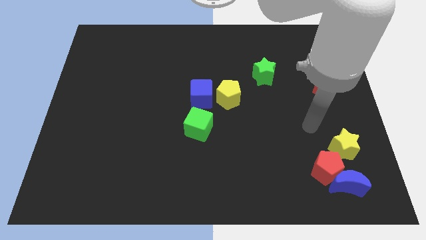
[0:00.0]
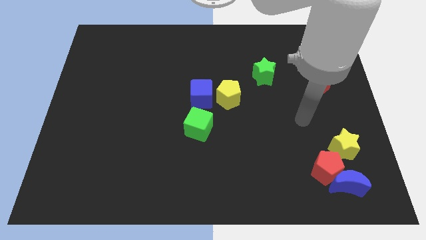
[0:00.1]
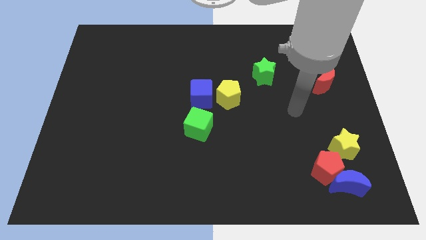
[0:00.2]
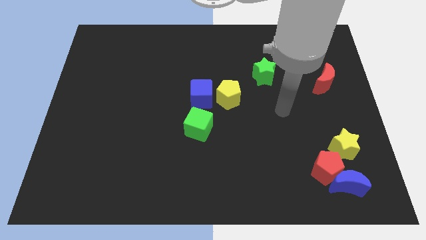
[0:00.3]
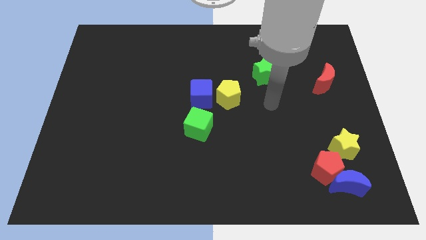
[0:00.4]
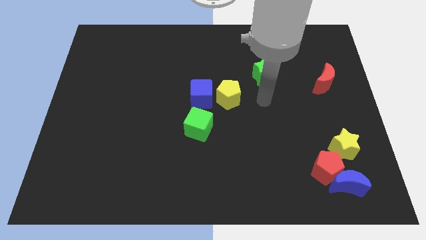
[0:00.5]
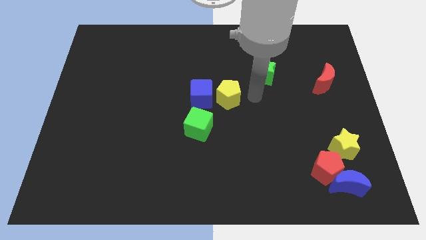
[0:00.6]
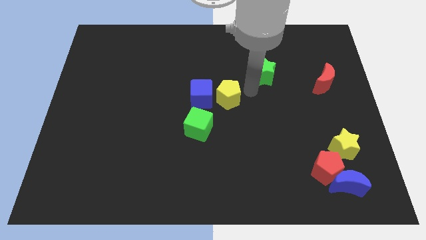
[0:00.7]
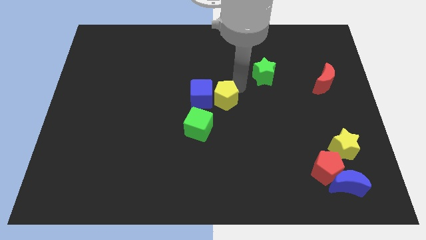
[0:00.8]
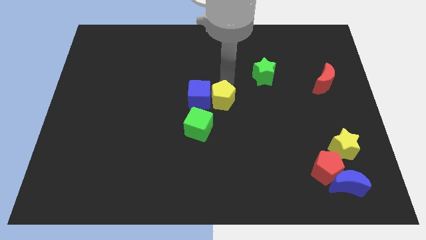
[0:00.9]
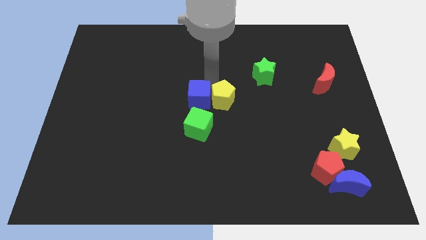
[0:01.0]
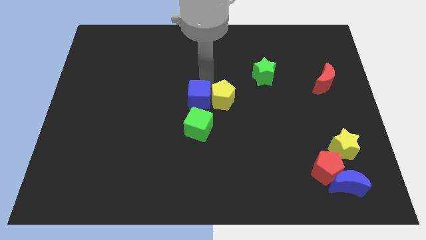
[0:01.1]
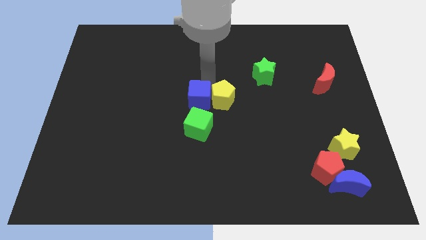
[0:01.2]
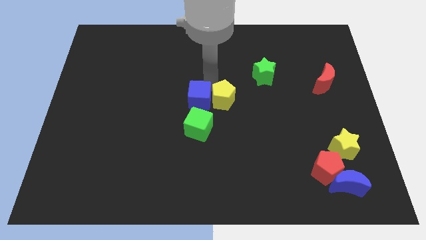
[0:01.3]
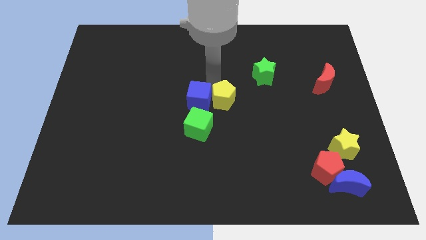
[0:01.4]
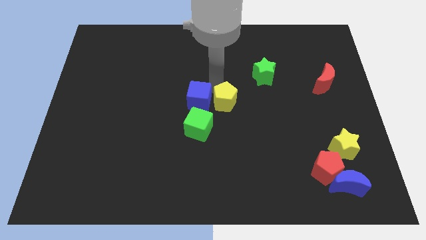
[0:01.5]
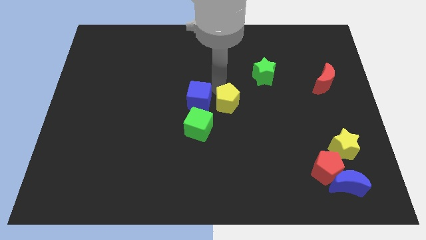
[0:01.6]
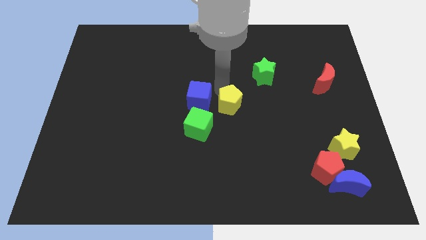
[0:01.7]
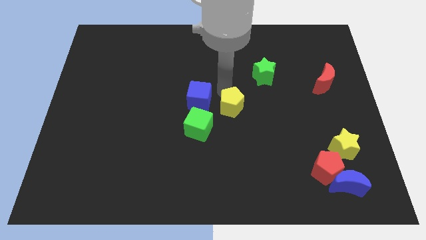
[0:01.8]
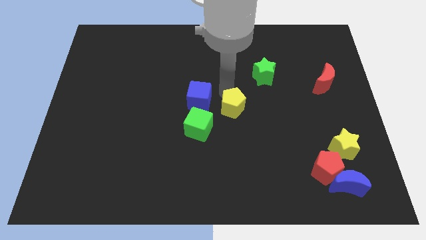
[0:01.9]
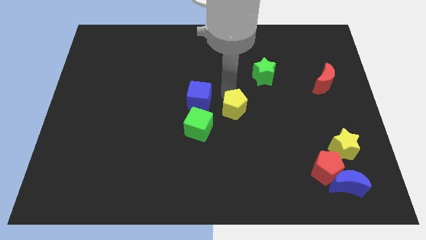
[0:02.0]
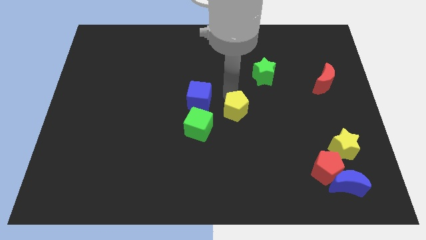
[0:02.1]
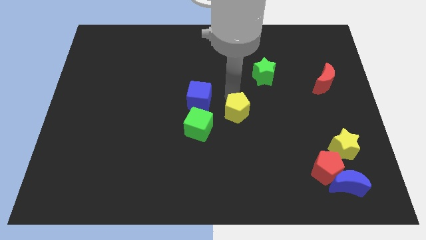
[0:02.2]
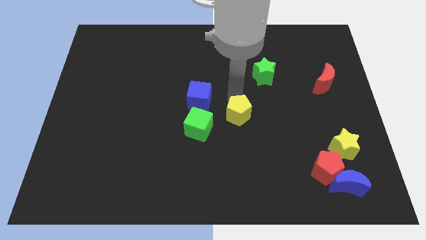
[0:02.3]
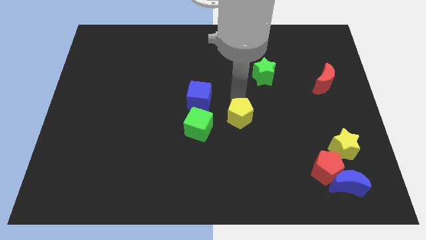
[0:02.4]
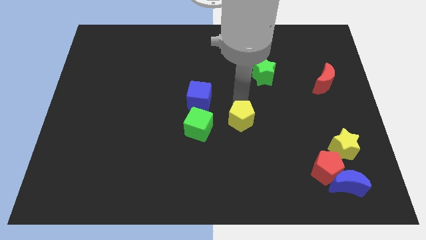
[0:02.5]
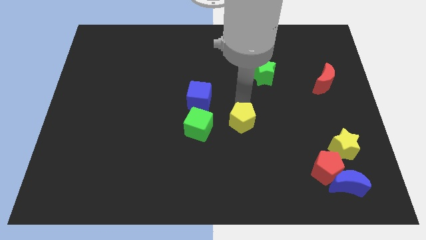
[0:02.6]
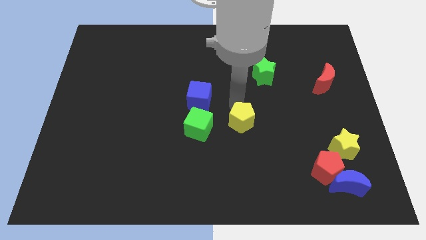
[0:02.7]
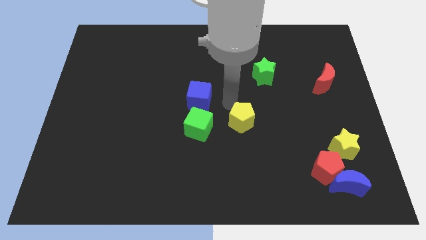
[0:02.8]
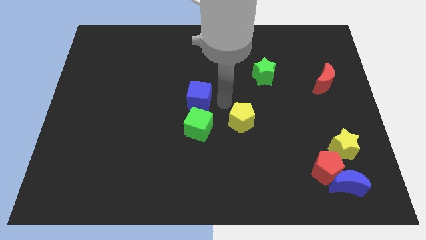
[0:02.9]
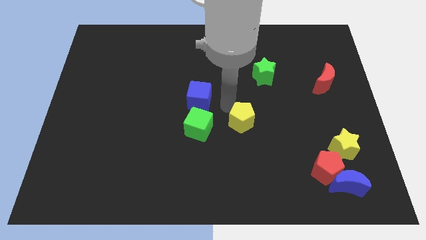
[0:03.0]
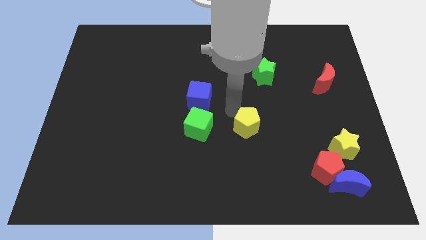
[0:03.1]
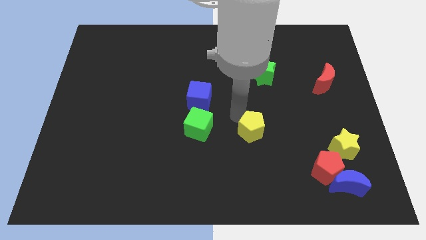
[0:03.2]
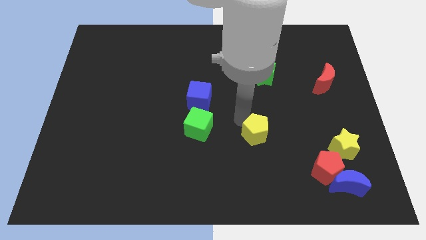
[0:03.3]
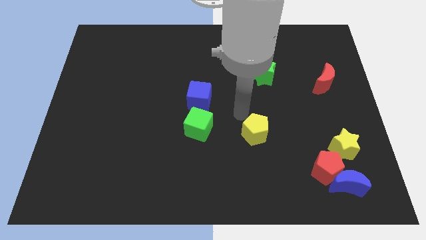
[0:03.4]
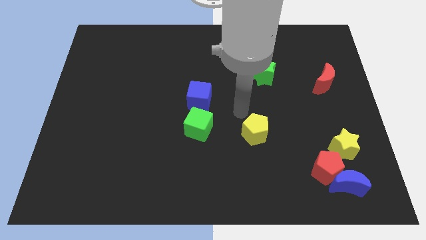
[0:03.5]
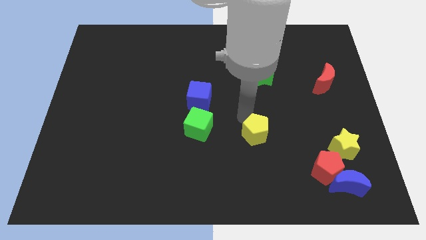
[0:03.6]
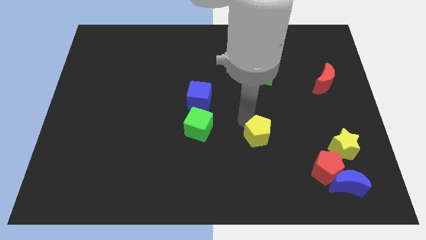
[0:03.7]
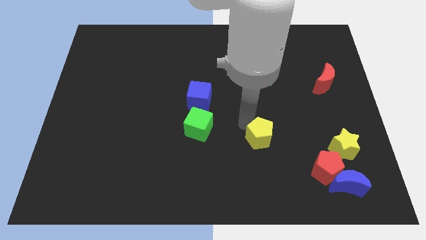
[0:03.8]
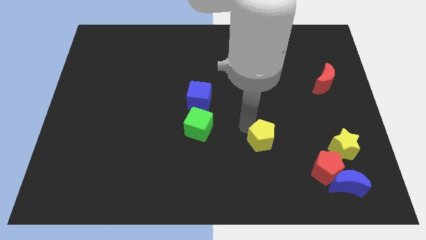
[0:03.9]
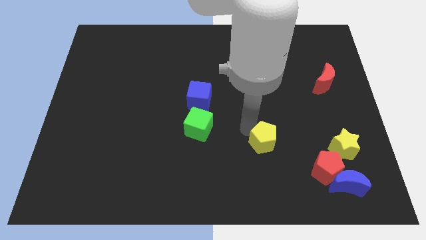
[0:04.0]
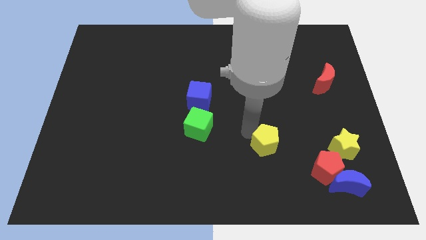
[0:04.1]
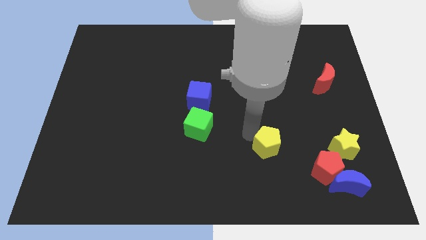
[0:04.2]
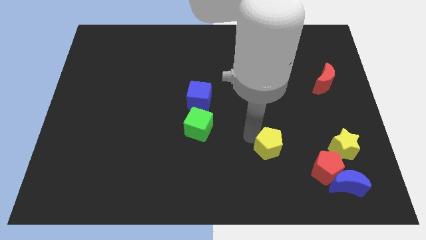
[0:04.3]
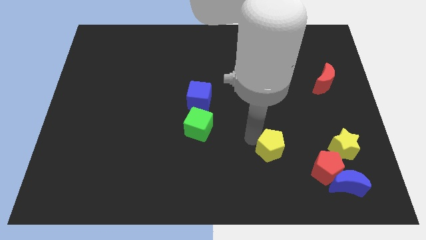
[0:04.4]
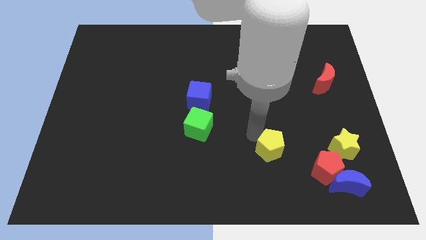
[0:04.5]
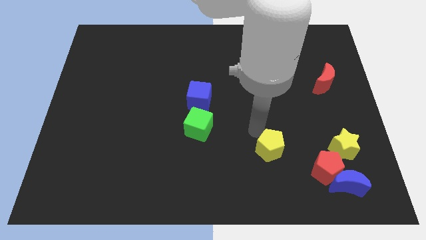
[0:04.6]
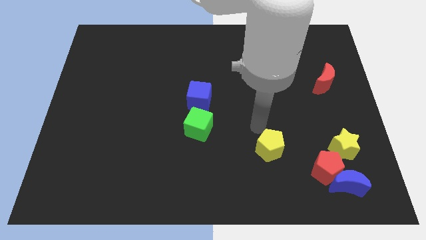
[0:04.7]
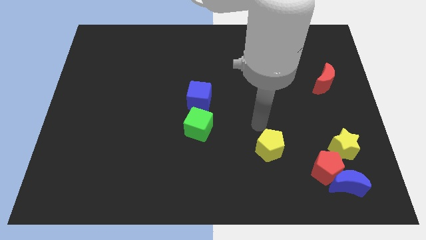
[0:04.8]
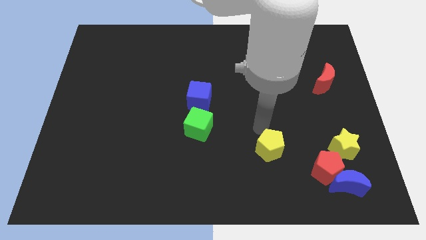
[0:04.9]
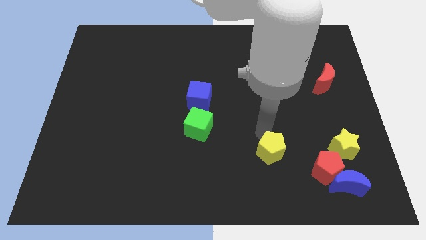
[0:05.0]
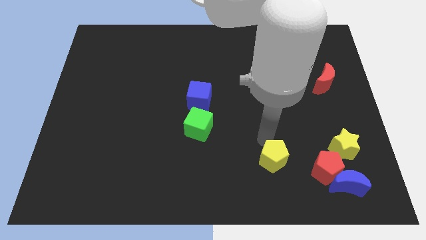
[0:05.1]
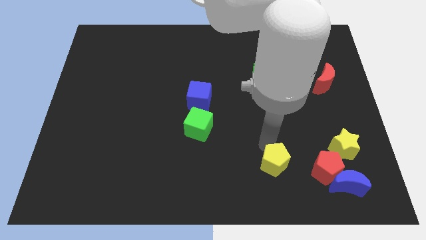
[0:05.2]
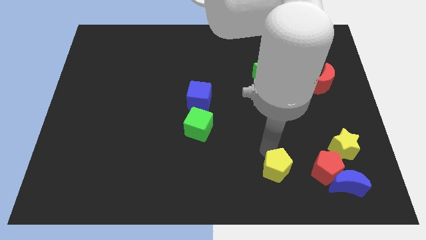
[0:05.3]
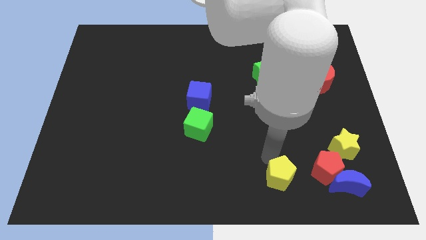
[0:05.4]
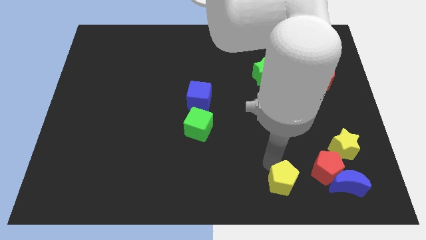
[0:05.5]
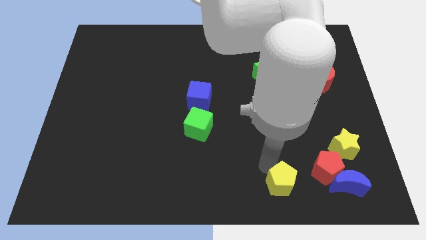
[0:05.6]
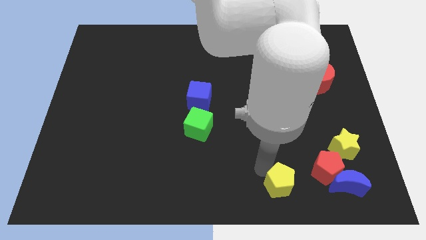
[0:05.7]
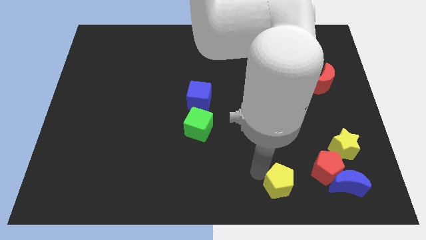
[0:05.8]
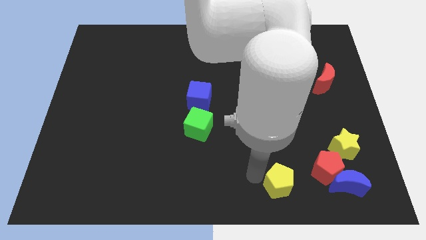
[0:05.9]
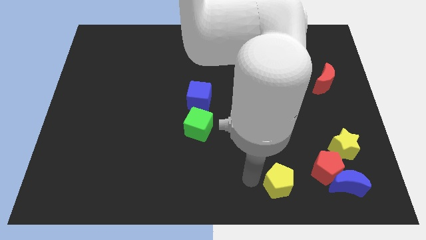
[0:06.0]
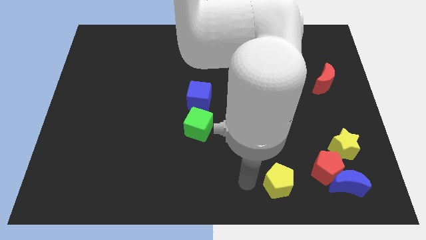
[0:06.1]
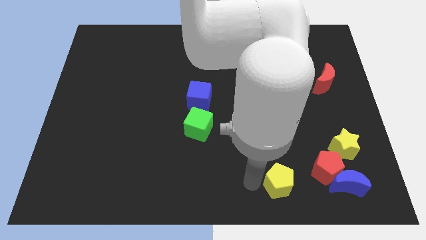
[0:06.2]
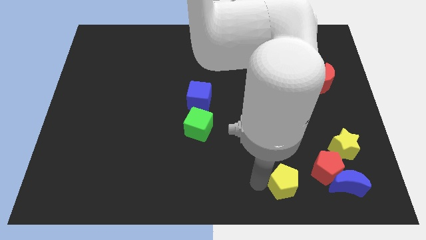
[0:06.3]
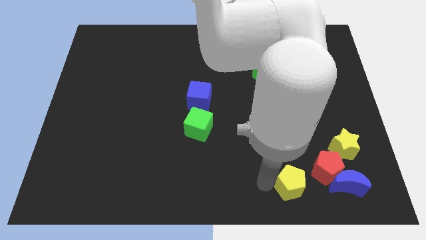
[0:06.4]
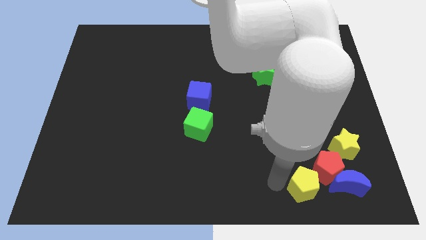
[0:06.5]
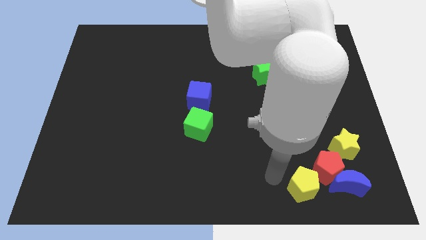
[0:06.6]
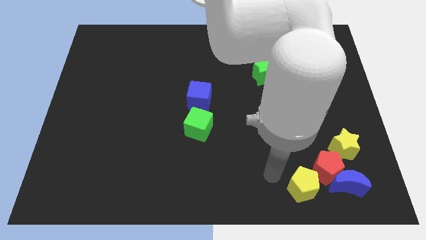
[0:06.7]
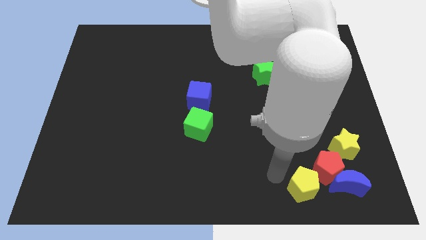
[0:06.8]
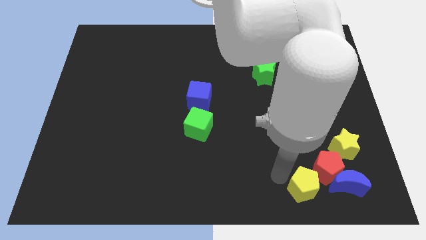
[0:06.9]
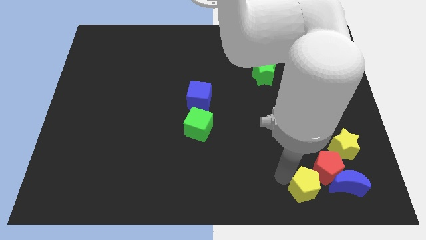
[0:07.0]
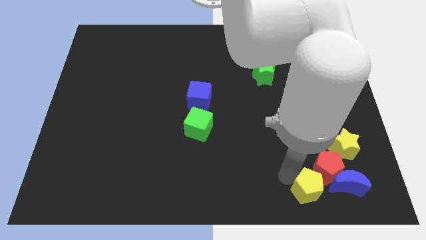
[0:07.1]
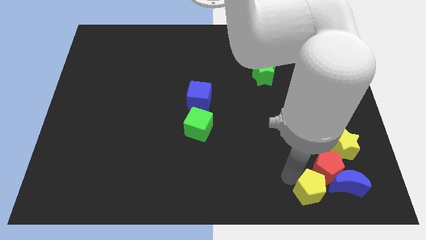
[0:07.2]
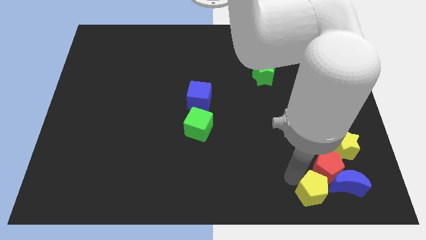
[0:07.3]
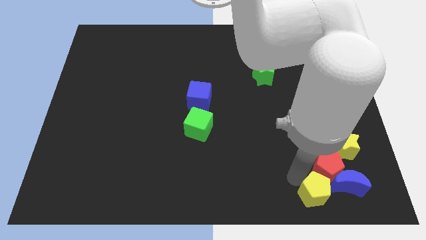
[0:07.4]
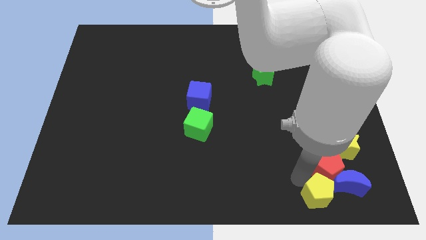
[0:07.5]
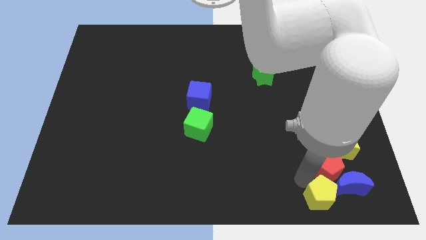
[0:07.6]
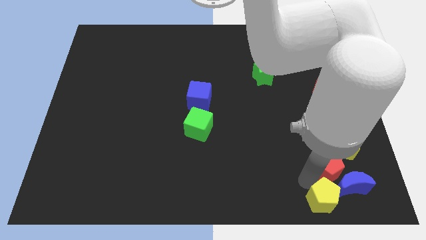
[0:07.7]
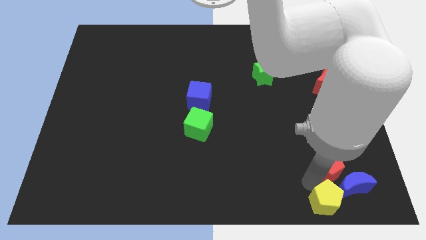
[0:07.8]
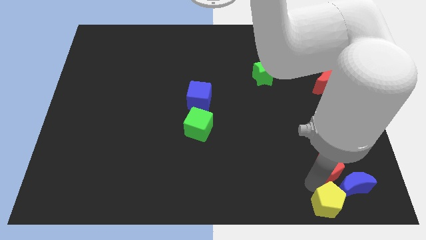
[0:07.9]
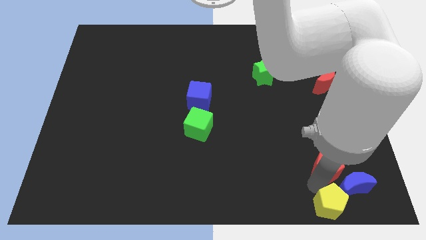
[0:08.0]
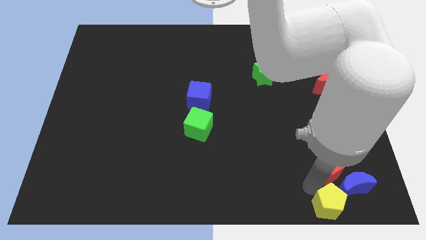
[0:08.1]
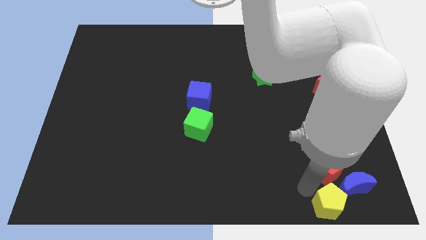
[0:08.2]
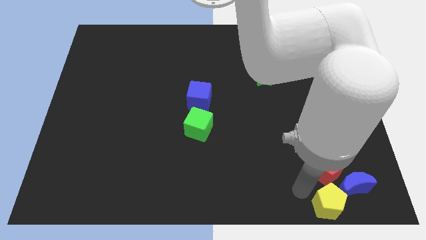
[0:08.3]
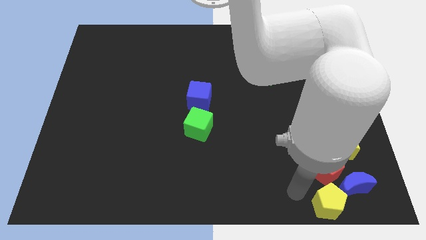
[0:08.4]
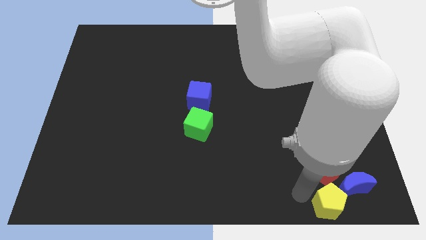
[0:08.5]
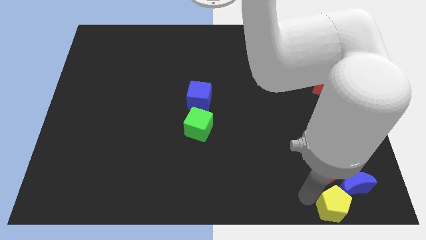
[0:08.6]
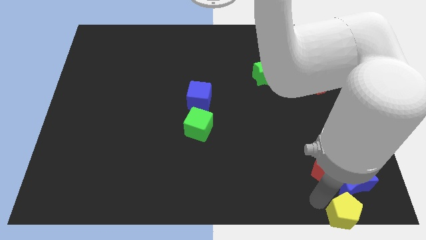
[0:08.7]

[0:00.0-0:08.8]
slide the yellow pentagon to the bottom right corner
